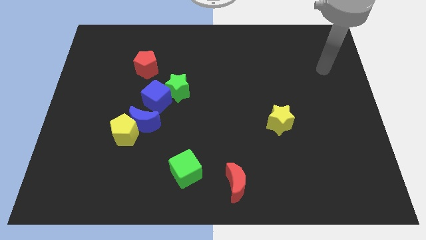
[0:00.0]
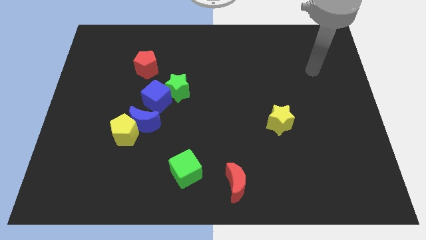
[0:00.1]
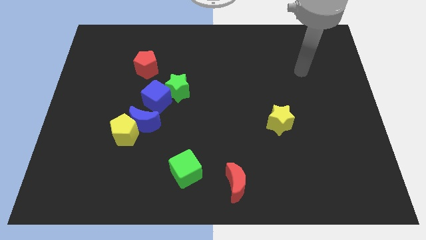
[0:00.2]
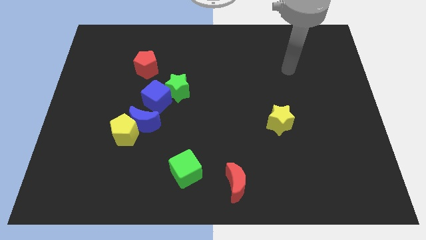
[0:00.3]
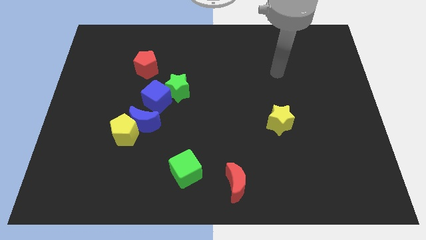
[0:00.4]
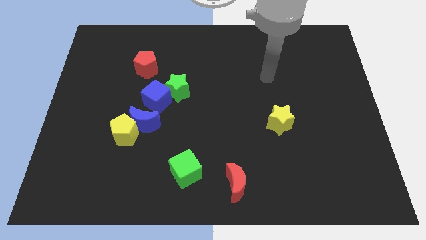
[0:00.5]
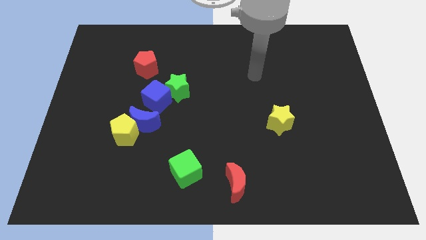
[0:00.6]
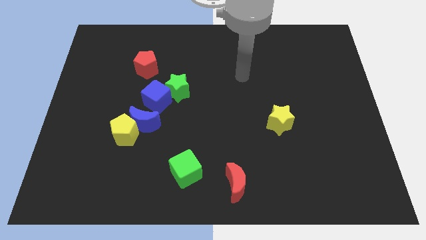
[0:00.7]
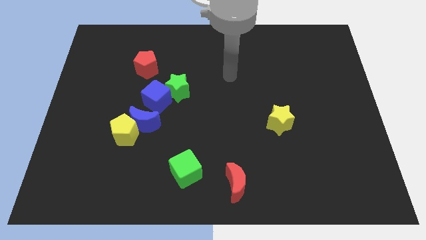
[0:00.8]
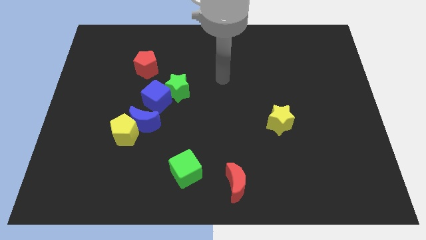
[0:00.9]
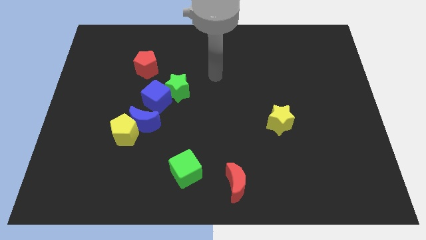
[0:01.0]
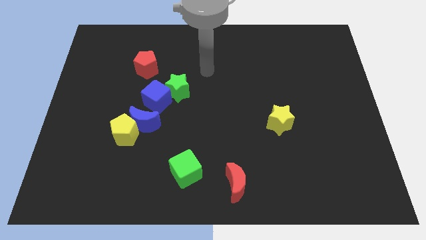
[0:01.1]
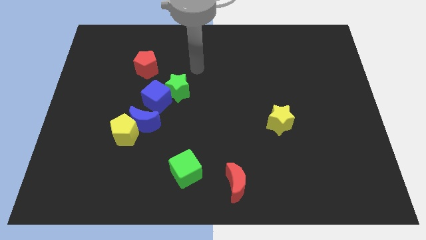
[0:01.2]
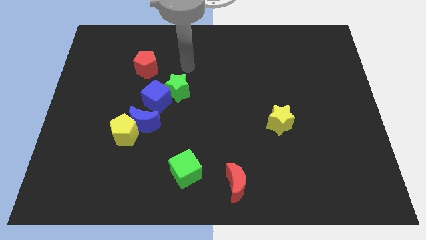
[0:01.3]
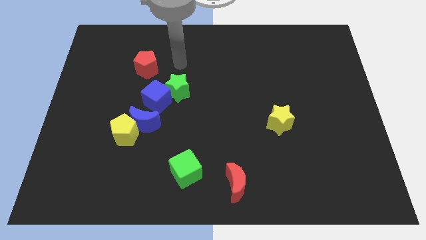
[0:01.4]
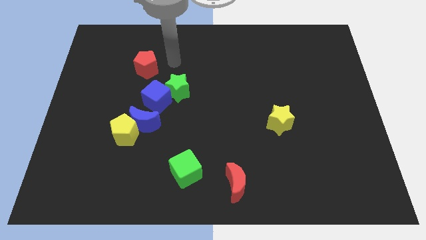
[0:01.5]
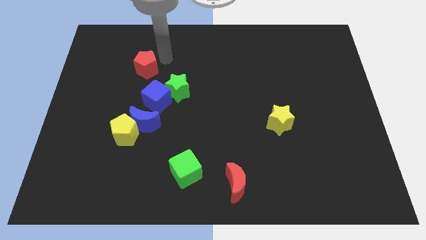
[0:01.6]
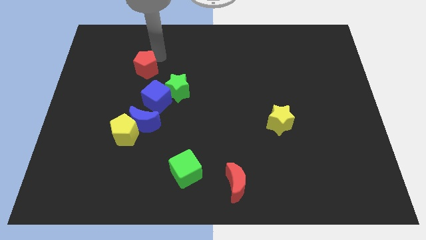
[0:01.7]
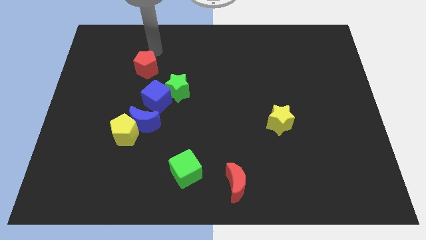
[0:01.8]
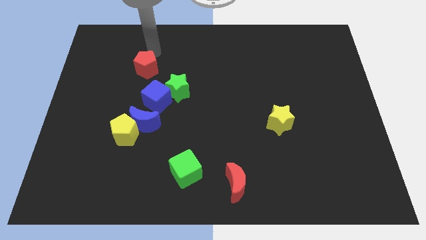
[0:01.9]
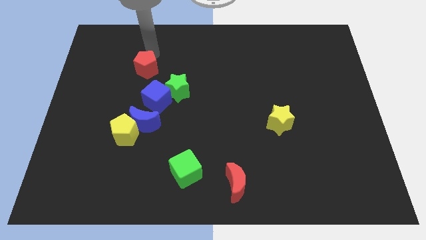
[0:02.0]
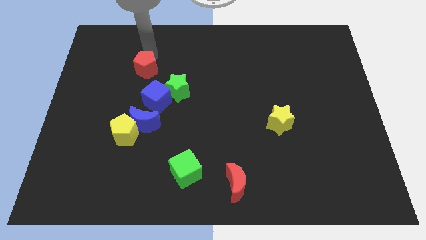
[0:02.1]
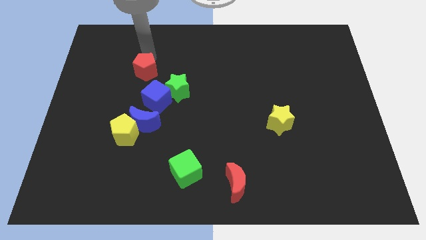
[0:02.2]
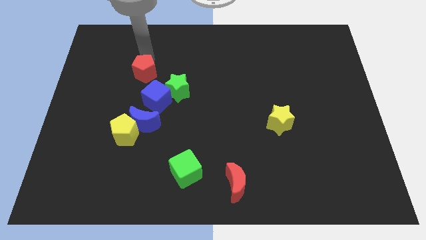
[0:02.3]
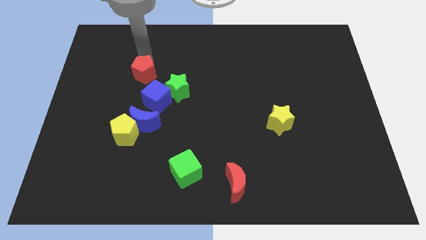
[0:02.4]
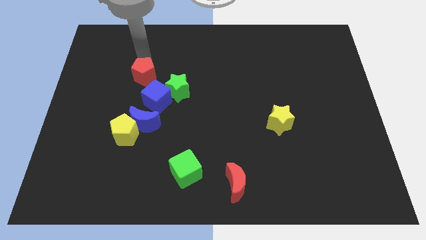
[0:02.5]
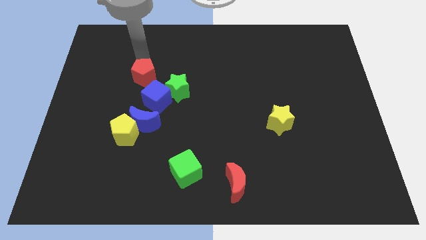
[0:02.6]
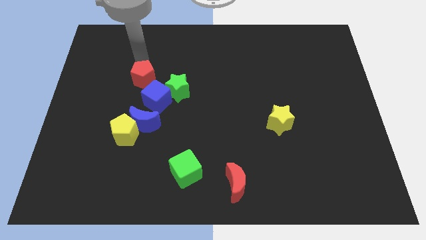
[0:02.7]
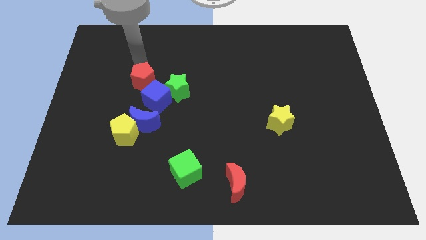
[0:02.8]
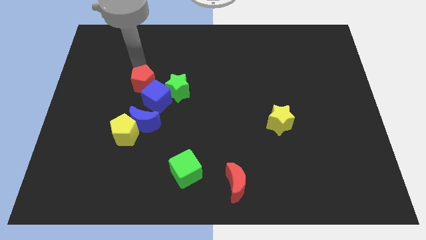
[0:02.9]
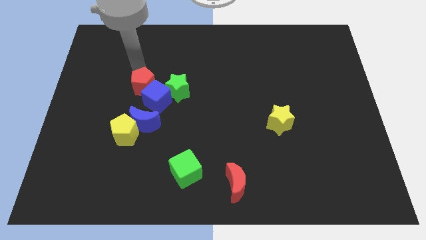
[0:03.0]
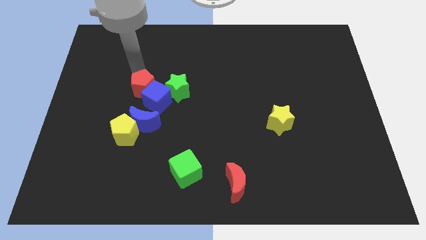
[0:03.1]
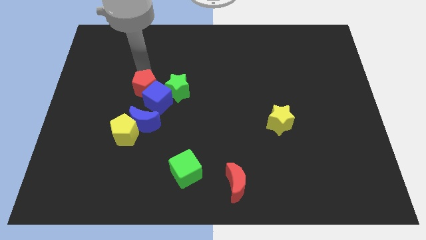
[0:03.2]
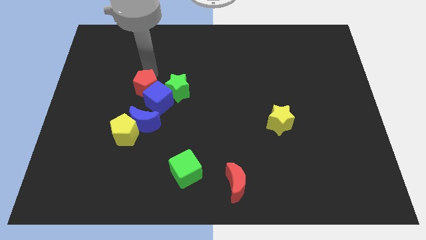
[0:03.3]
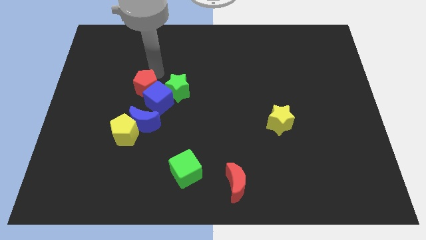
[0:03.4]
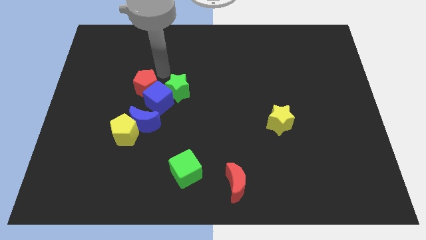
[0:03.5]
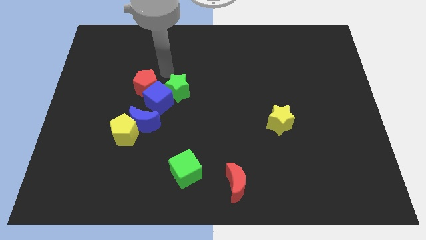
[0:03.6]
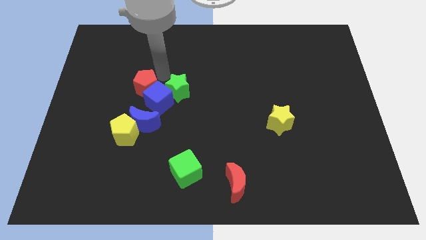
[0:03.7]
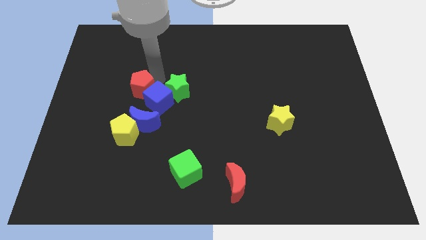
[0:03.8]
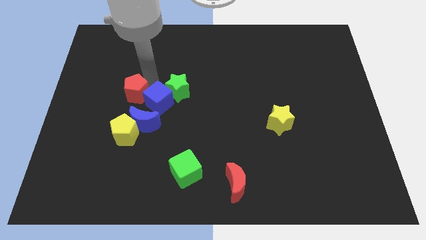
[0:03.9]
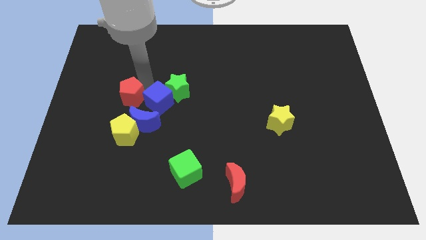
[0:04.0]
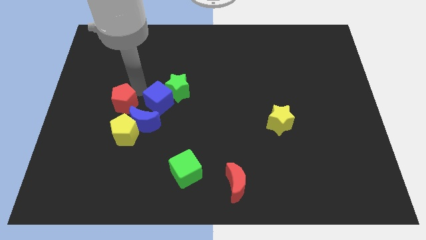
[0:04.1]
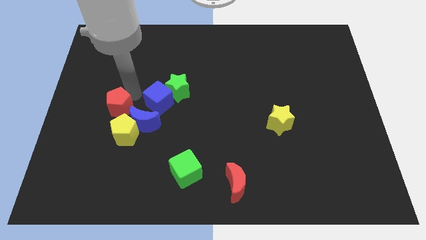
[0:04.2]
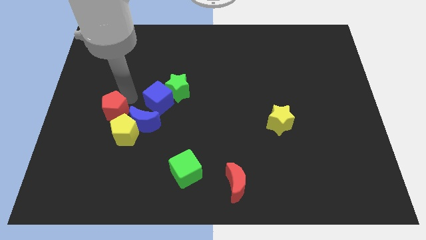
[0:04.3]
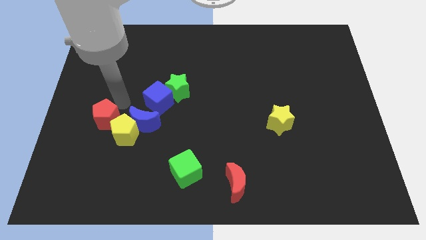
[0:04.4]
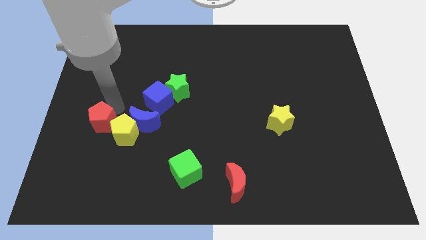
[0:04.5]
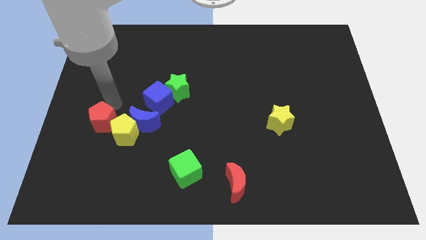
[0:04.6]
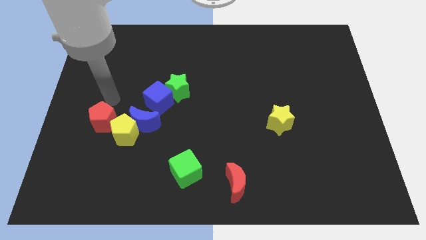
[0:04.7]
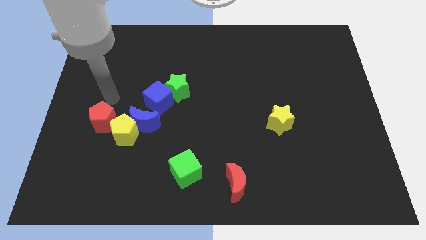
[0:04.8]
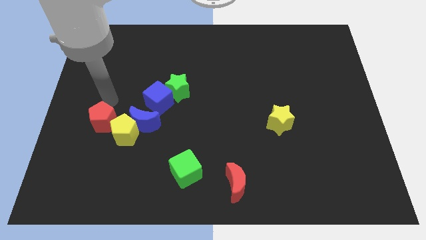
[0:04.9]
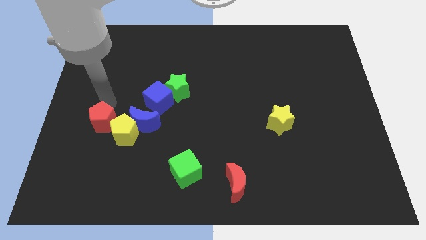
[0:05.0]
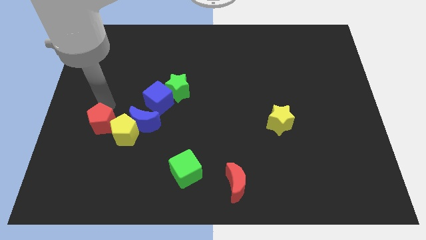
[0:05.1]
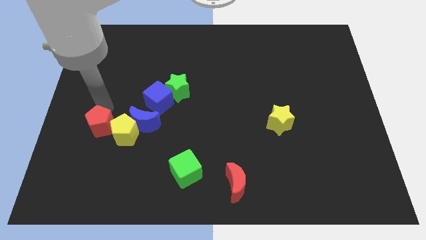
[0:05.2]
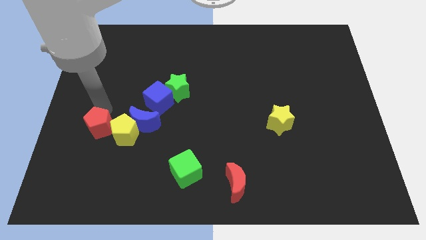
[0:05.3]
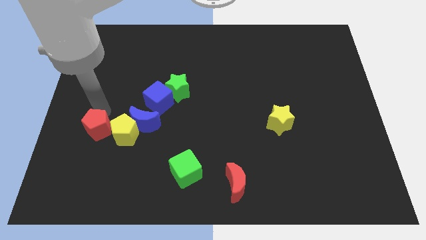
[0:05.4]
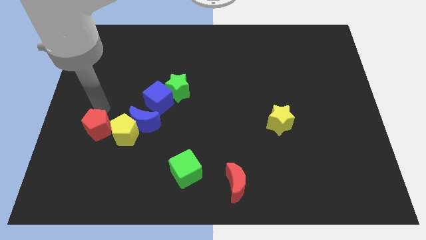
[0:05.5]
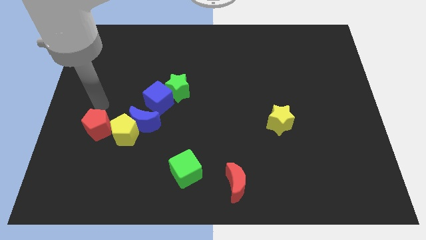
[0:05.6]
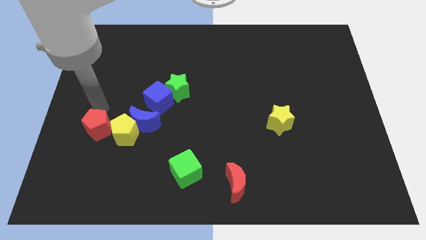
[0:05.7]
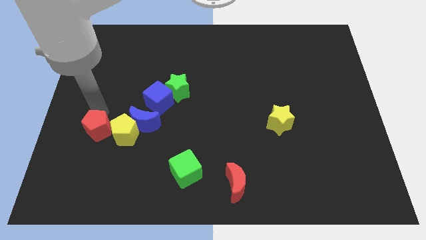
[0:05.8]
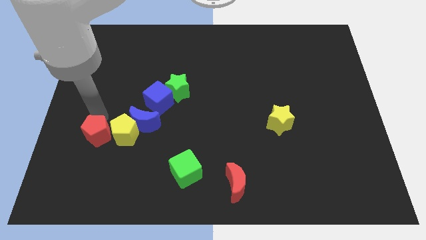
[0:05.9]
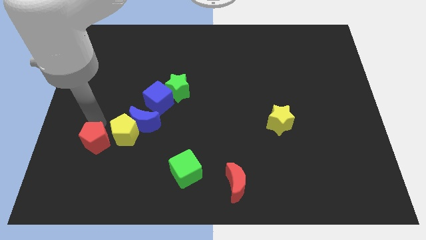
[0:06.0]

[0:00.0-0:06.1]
push the red pentagon to the bottom left of the blue moon

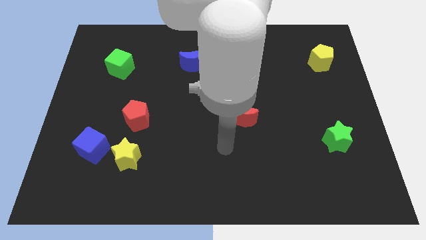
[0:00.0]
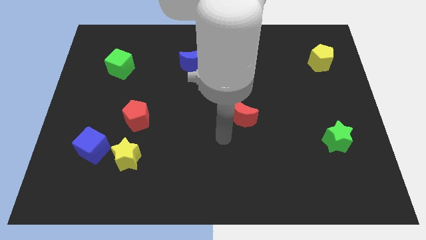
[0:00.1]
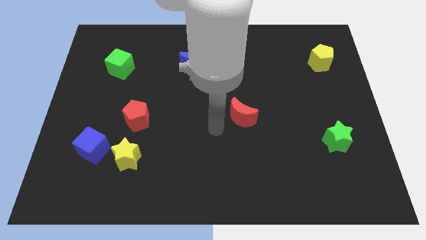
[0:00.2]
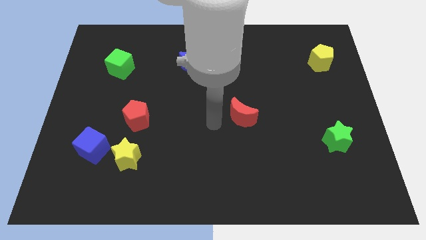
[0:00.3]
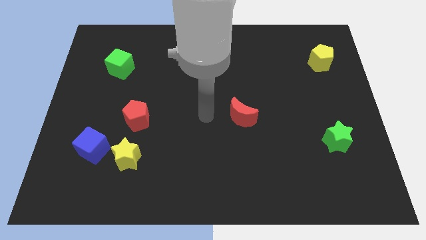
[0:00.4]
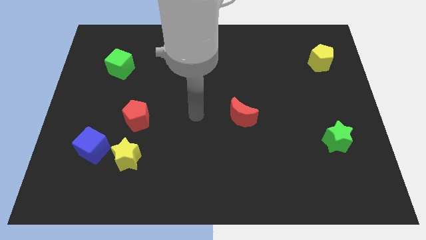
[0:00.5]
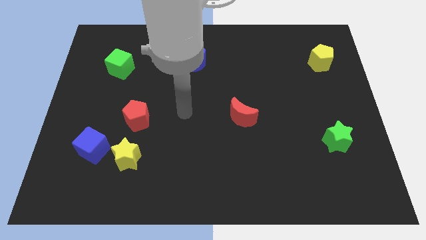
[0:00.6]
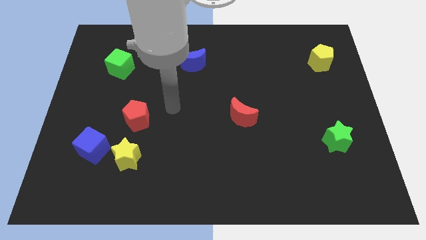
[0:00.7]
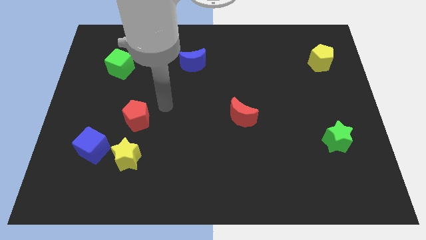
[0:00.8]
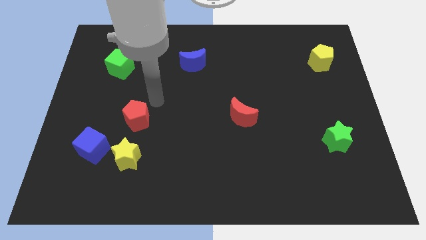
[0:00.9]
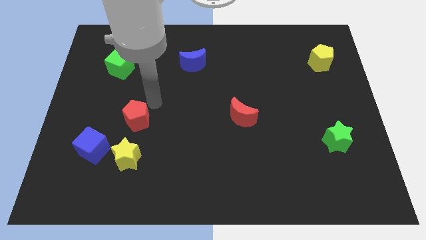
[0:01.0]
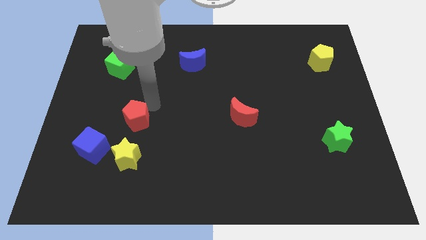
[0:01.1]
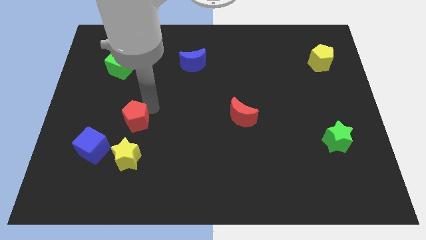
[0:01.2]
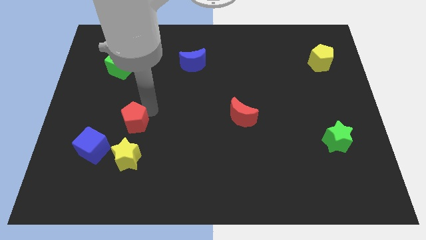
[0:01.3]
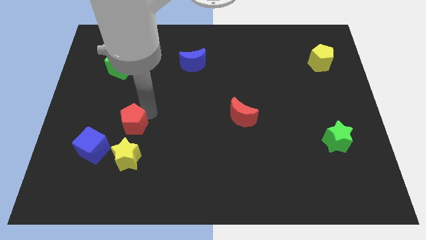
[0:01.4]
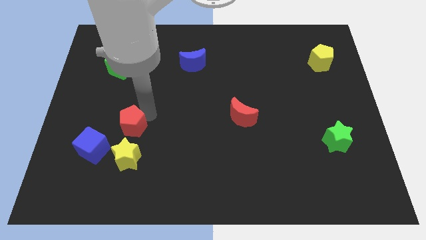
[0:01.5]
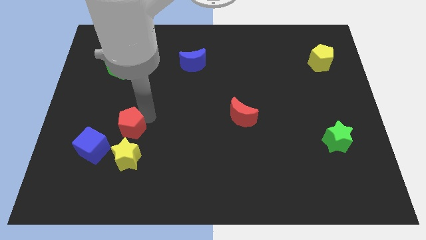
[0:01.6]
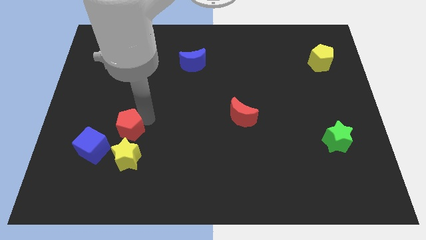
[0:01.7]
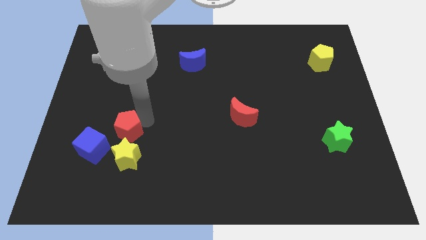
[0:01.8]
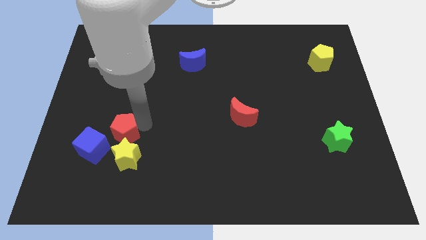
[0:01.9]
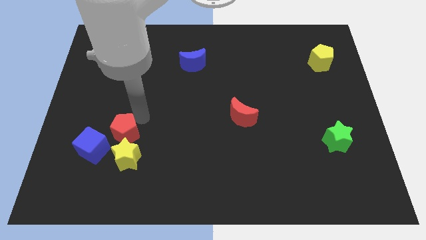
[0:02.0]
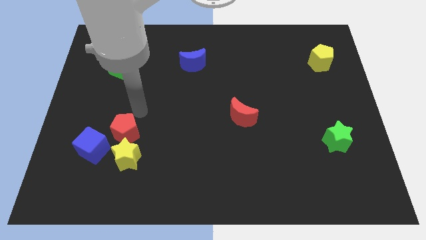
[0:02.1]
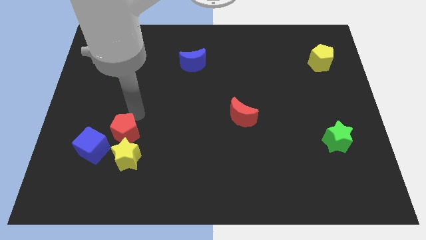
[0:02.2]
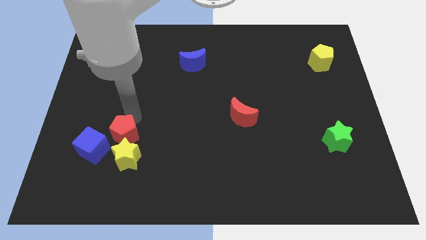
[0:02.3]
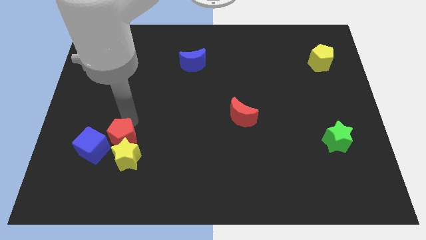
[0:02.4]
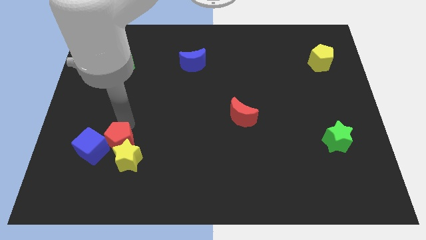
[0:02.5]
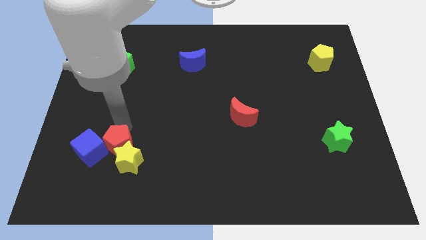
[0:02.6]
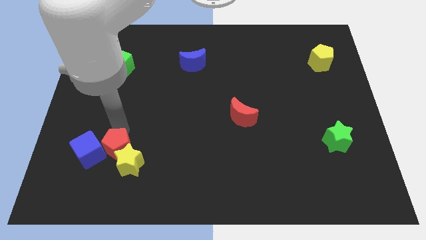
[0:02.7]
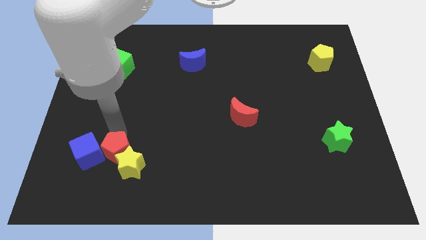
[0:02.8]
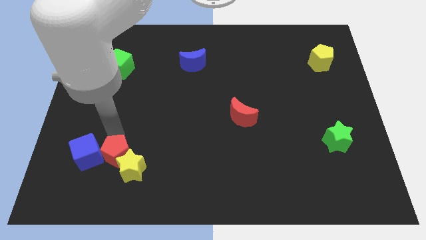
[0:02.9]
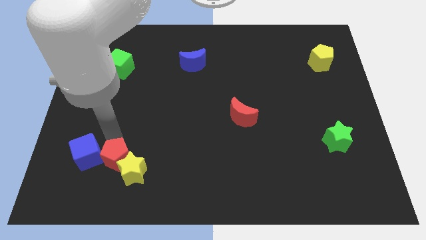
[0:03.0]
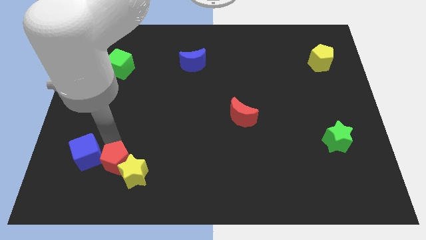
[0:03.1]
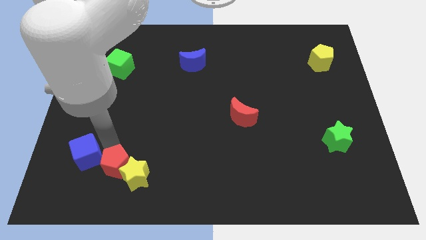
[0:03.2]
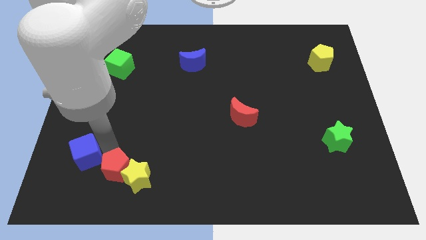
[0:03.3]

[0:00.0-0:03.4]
slide the red pentagon diagonally down and to the left of the yellow star
